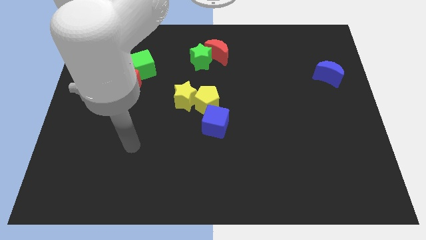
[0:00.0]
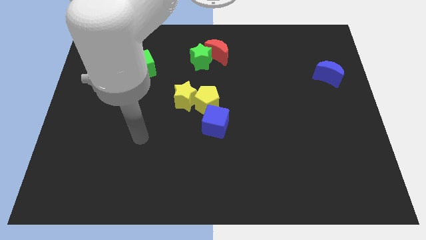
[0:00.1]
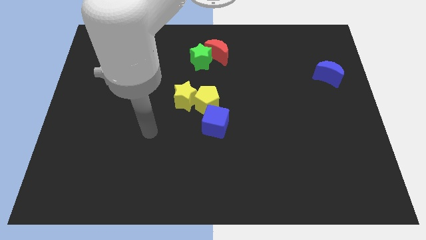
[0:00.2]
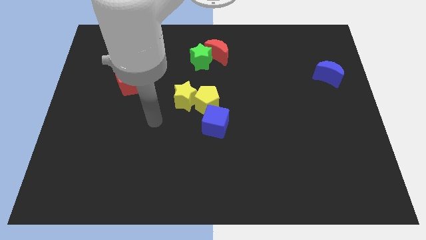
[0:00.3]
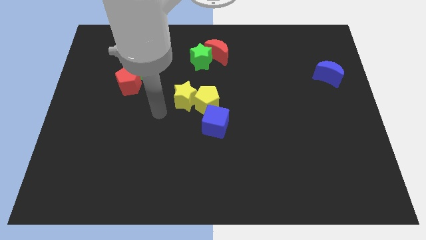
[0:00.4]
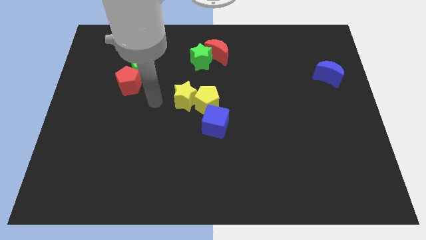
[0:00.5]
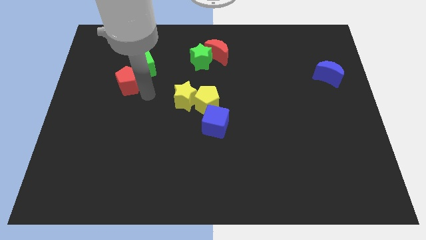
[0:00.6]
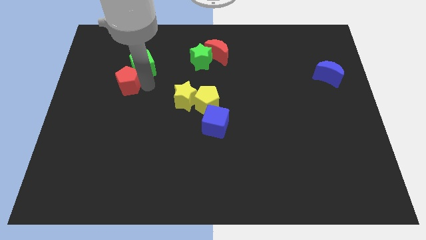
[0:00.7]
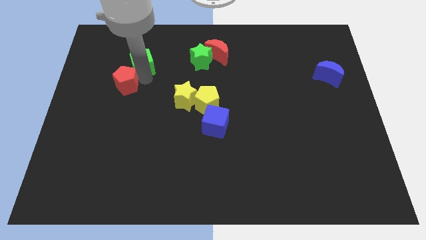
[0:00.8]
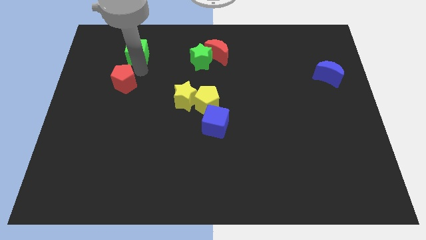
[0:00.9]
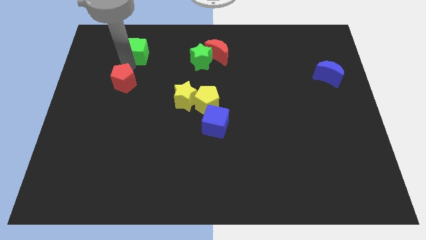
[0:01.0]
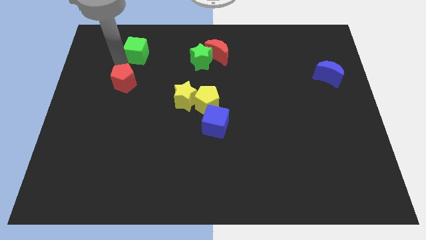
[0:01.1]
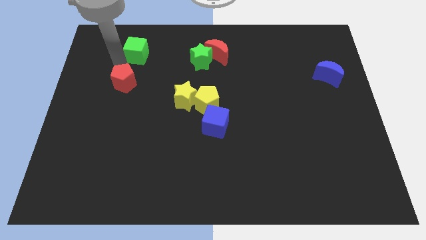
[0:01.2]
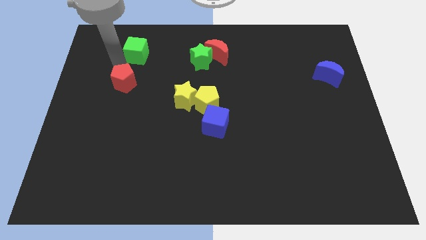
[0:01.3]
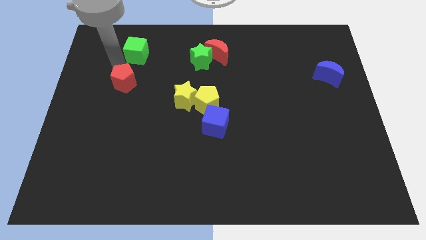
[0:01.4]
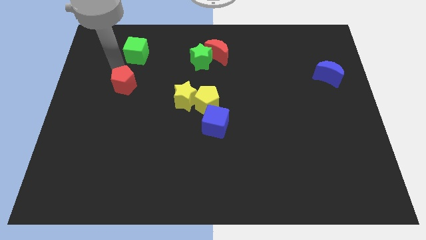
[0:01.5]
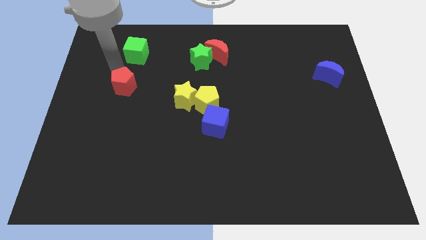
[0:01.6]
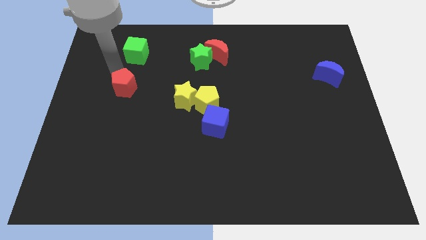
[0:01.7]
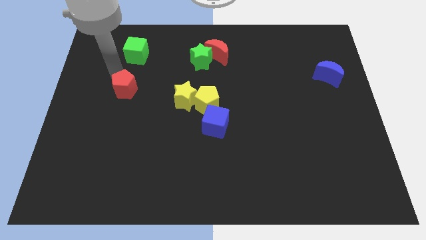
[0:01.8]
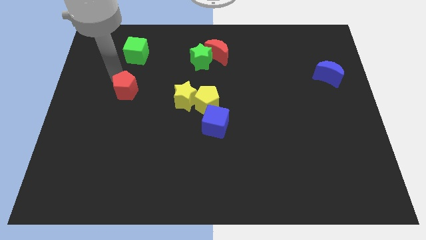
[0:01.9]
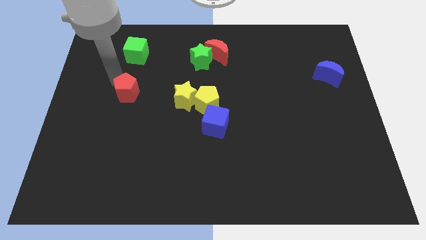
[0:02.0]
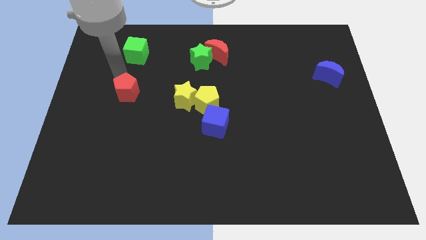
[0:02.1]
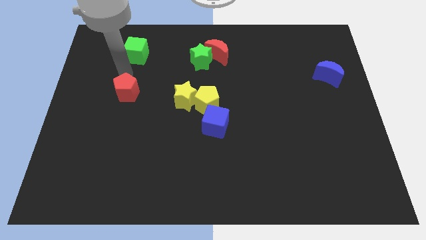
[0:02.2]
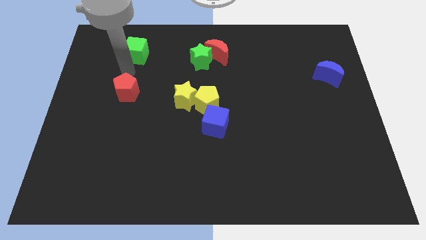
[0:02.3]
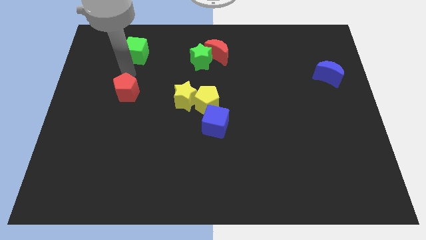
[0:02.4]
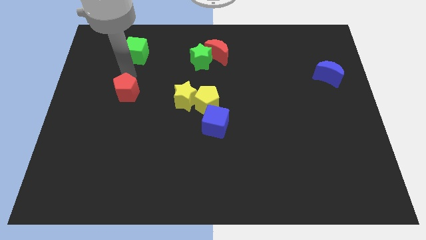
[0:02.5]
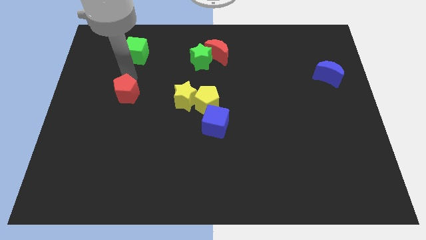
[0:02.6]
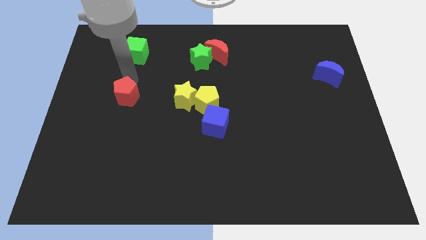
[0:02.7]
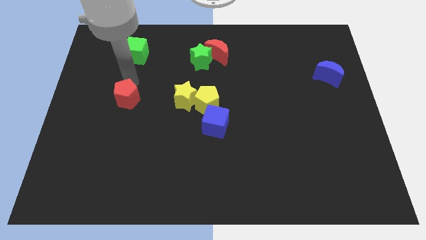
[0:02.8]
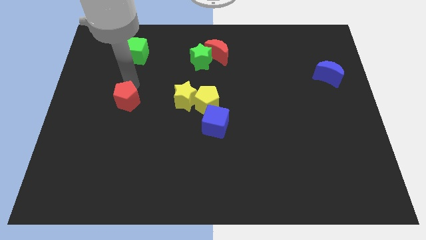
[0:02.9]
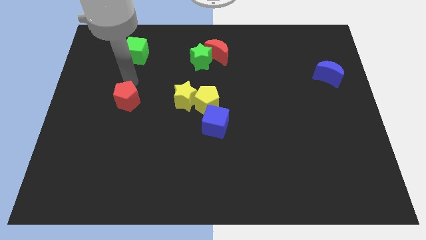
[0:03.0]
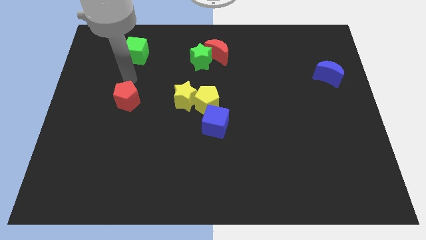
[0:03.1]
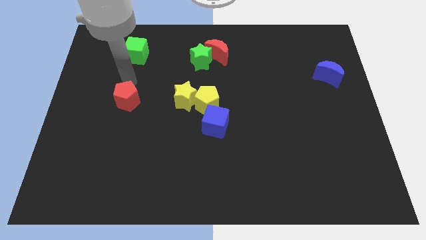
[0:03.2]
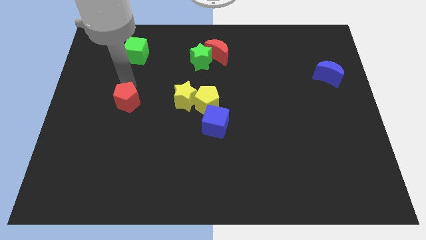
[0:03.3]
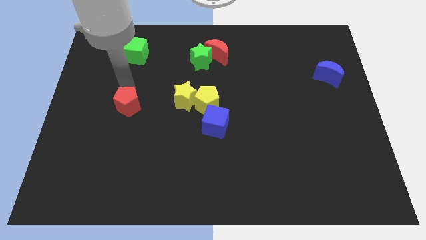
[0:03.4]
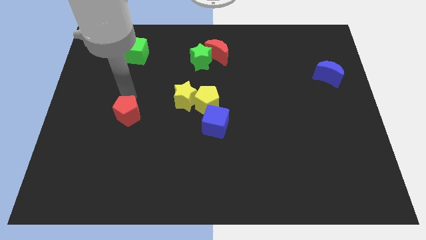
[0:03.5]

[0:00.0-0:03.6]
slide the red pentagon a little bit down

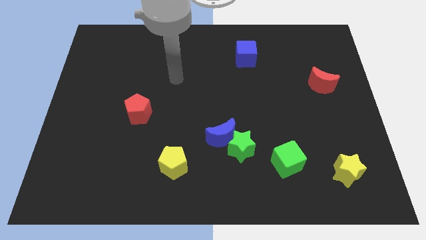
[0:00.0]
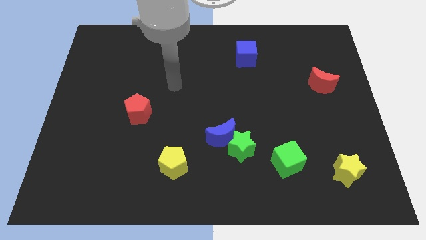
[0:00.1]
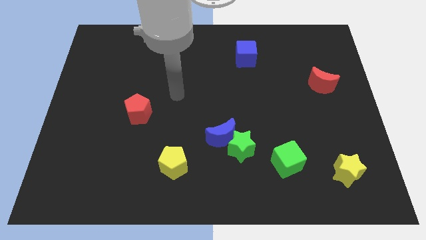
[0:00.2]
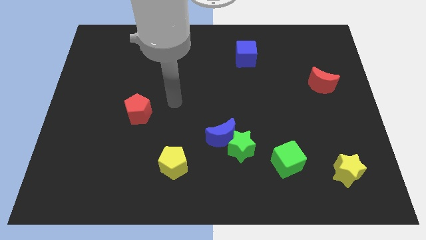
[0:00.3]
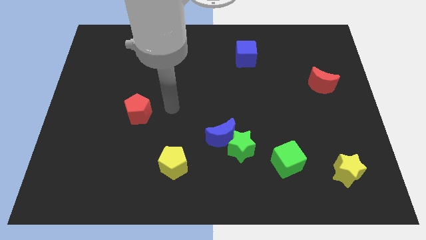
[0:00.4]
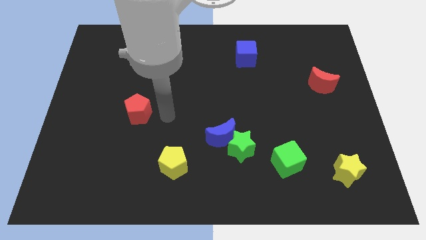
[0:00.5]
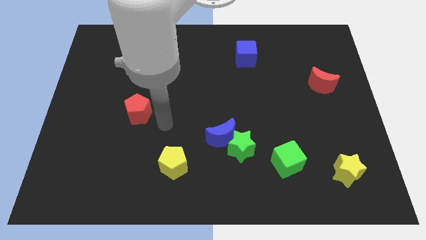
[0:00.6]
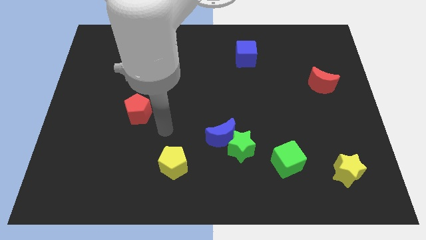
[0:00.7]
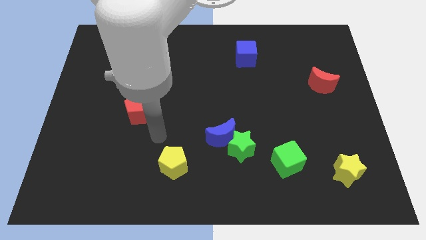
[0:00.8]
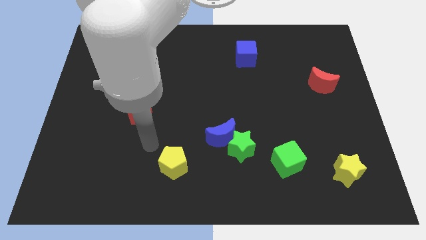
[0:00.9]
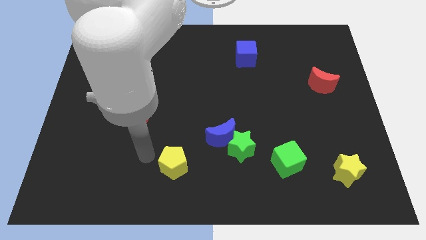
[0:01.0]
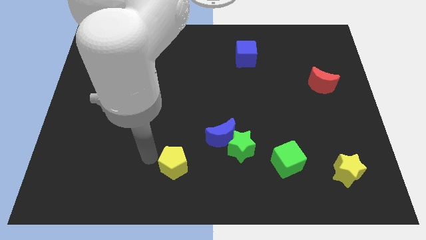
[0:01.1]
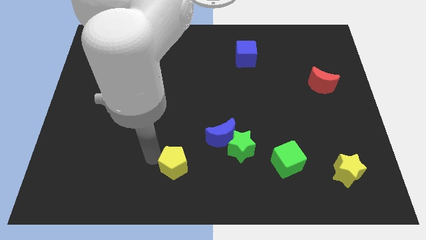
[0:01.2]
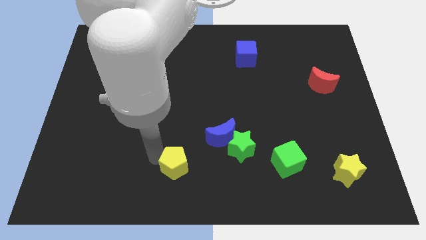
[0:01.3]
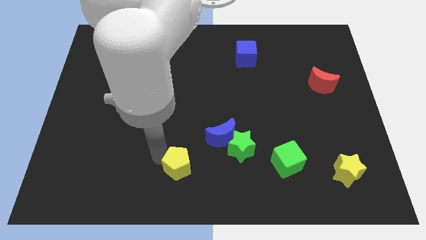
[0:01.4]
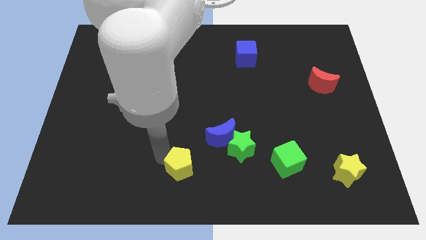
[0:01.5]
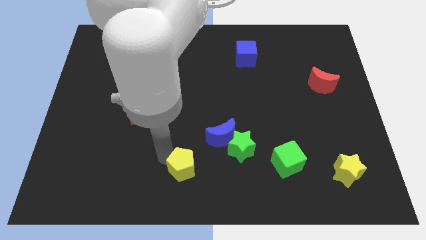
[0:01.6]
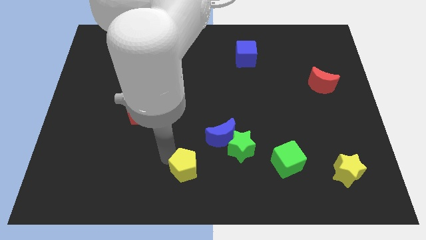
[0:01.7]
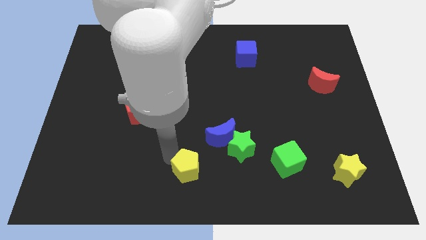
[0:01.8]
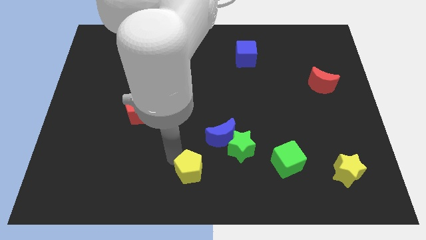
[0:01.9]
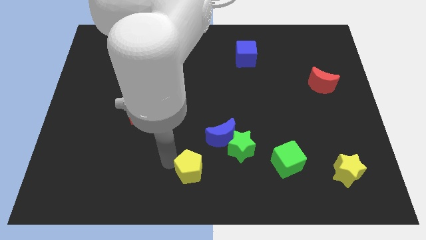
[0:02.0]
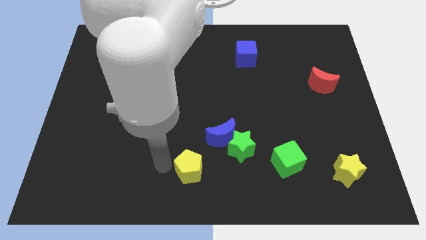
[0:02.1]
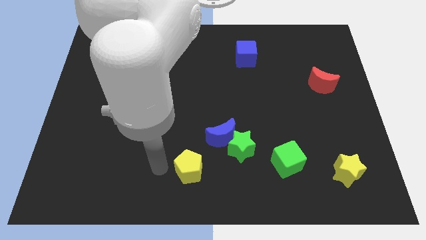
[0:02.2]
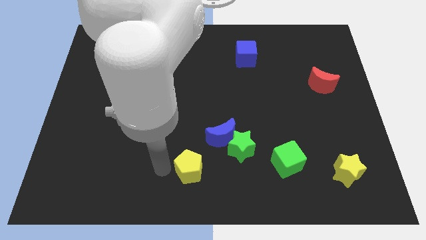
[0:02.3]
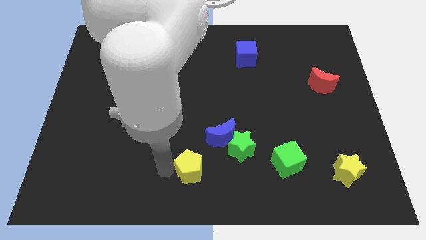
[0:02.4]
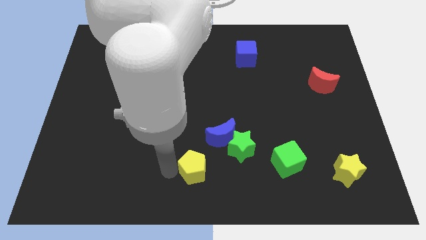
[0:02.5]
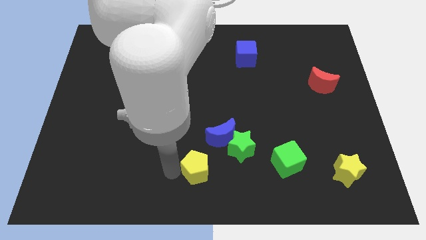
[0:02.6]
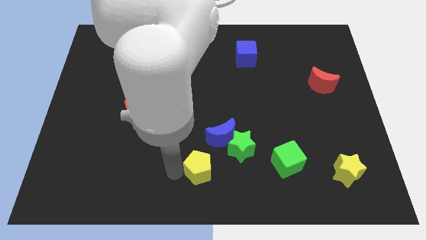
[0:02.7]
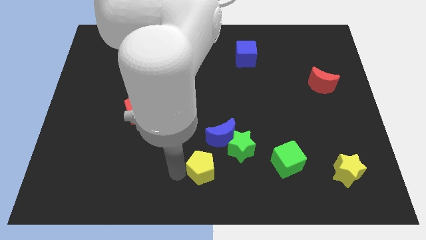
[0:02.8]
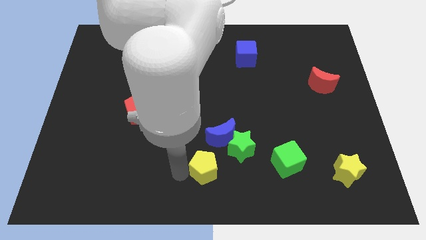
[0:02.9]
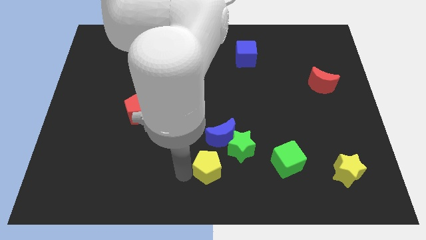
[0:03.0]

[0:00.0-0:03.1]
slightly move the yellow pentagon to the right

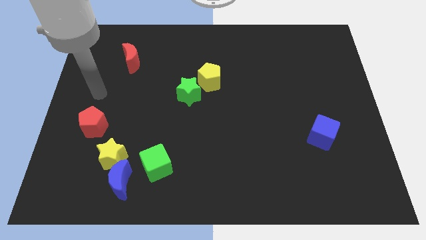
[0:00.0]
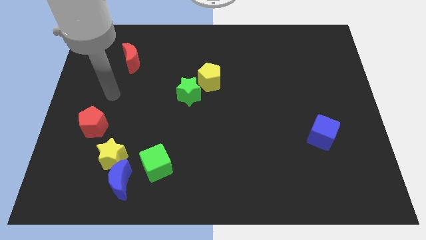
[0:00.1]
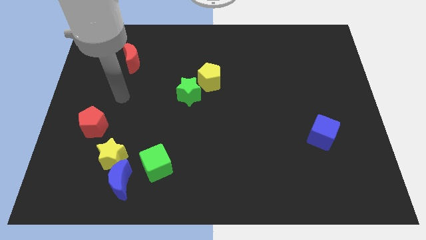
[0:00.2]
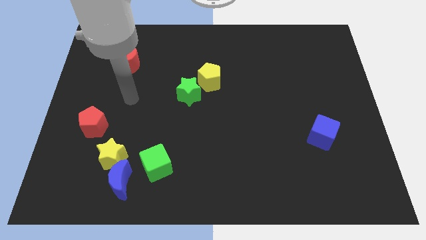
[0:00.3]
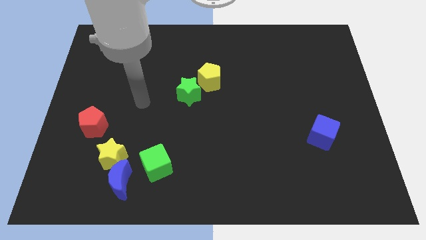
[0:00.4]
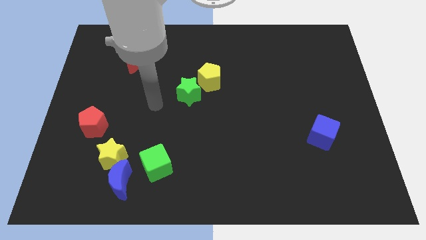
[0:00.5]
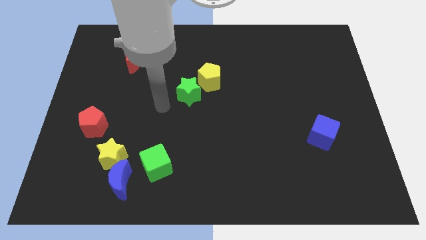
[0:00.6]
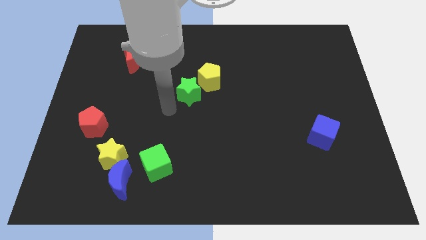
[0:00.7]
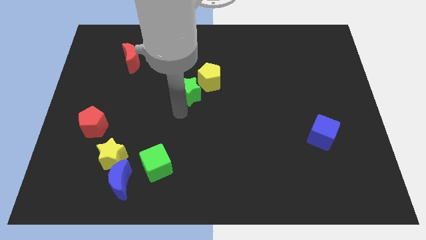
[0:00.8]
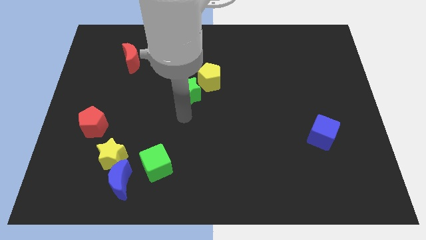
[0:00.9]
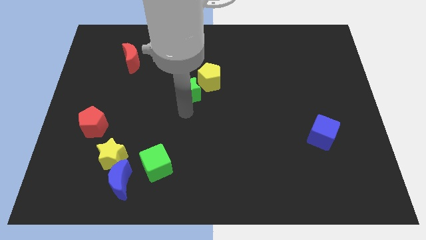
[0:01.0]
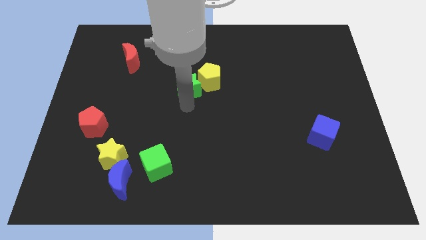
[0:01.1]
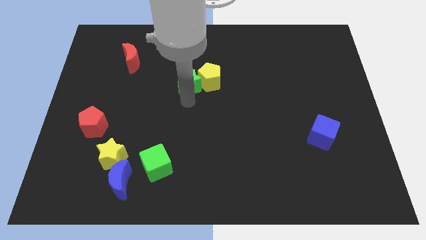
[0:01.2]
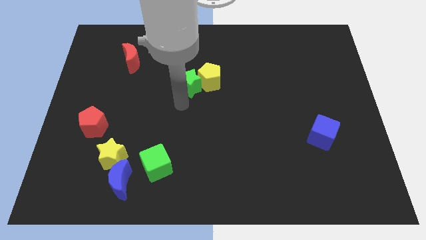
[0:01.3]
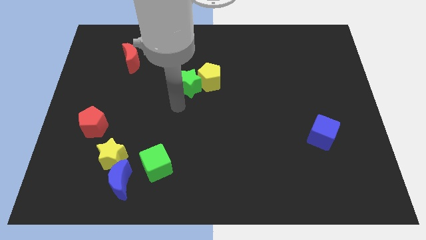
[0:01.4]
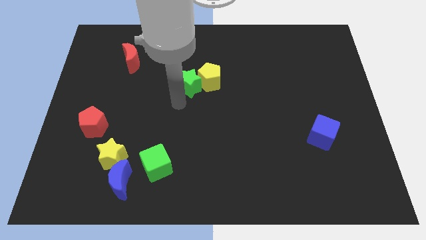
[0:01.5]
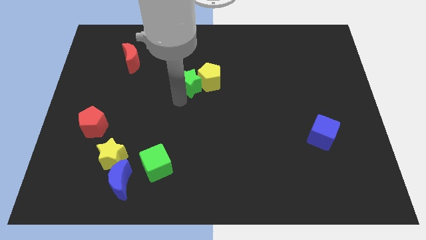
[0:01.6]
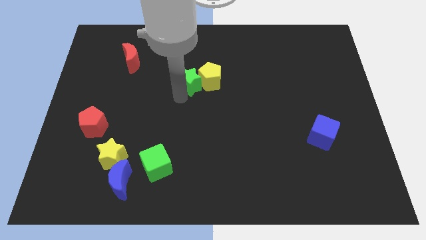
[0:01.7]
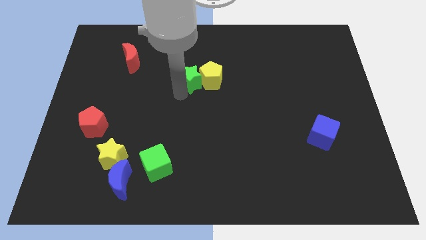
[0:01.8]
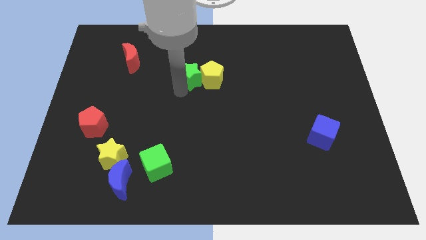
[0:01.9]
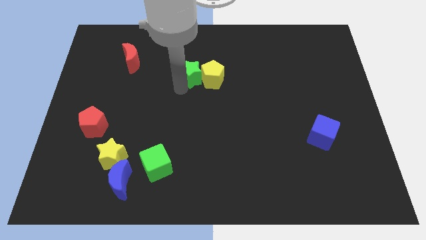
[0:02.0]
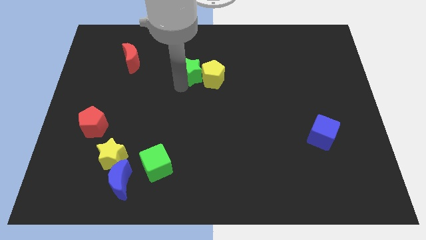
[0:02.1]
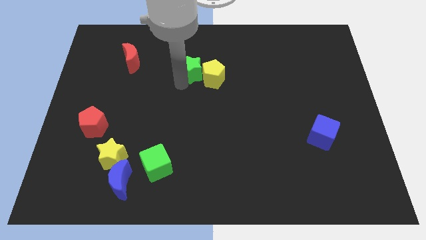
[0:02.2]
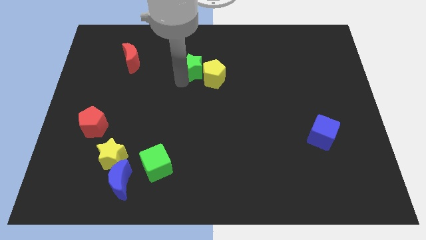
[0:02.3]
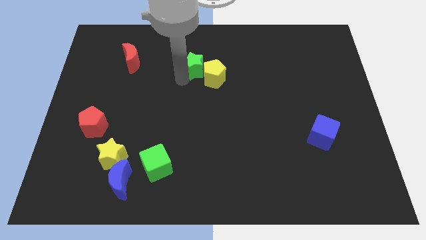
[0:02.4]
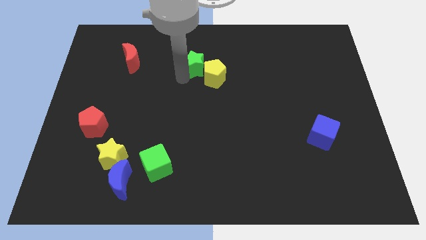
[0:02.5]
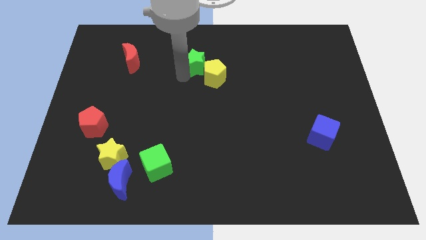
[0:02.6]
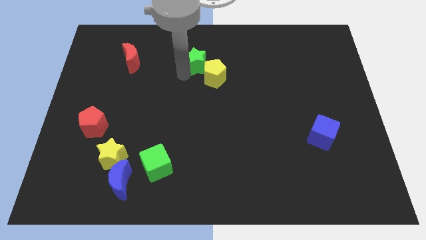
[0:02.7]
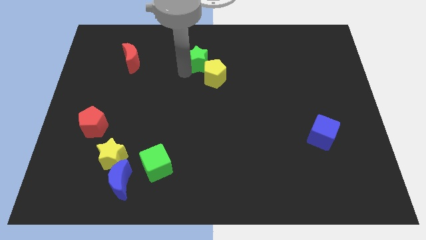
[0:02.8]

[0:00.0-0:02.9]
slide the green star up and right a bit
